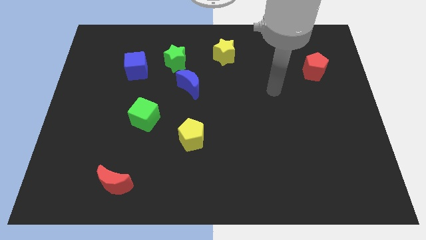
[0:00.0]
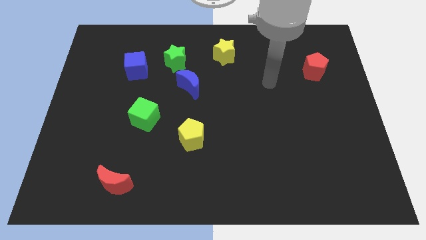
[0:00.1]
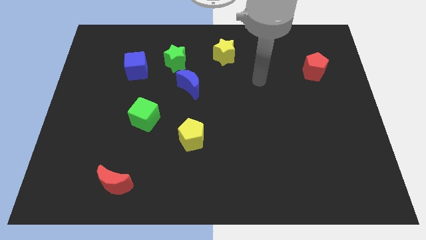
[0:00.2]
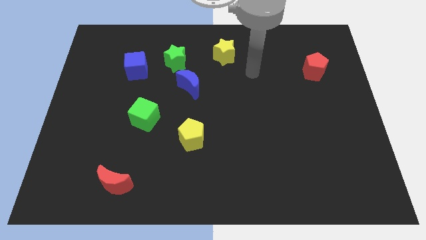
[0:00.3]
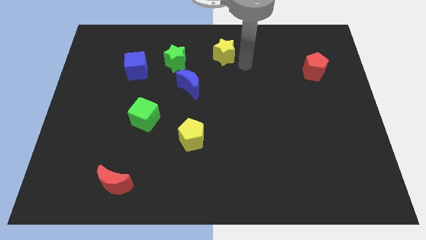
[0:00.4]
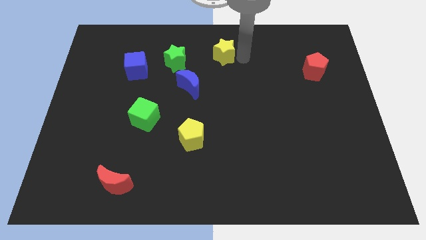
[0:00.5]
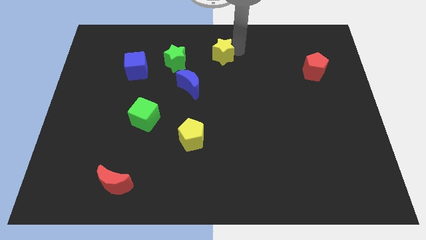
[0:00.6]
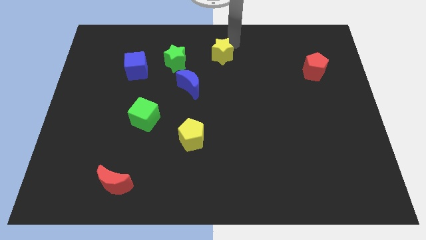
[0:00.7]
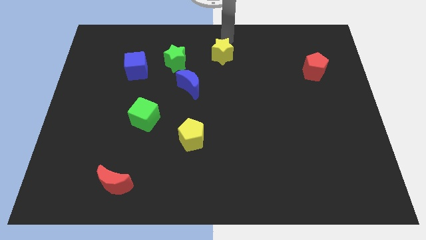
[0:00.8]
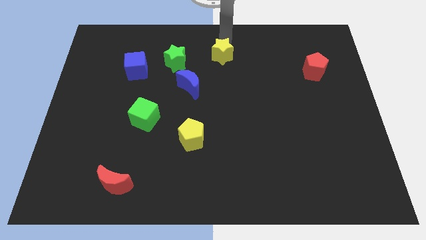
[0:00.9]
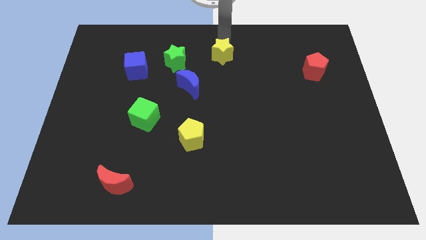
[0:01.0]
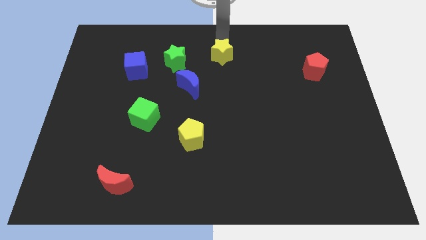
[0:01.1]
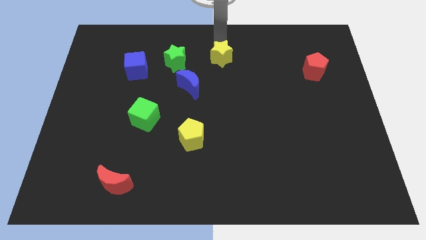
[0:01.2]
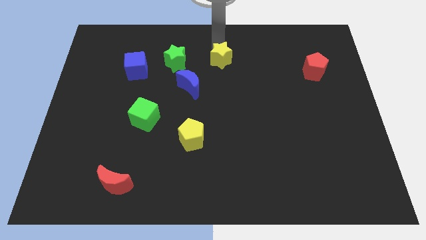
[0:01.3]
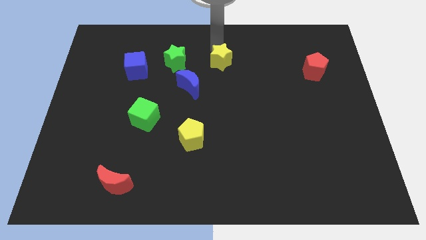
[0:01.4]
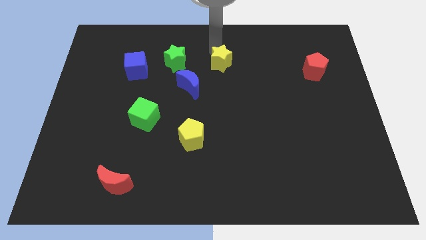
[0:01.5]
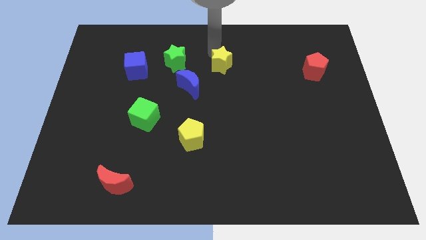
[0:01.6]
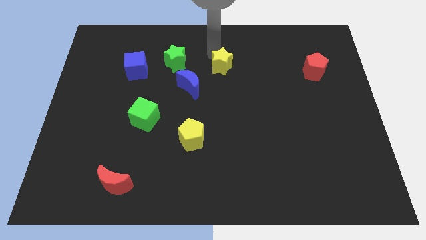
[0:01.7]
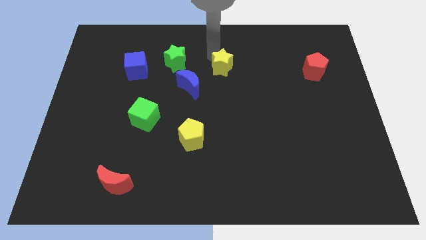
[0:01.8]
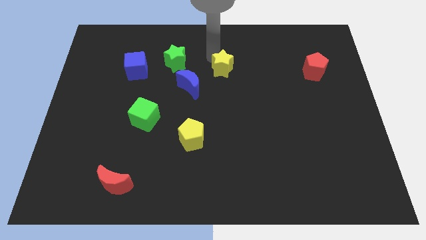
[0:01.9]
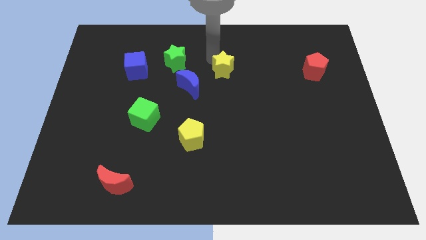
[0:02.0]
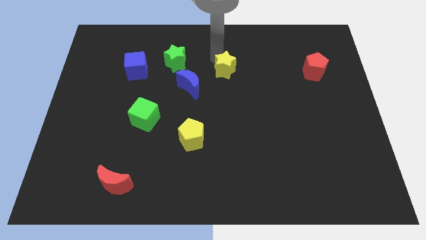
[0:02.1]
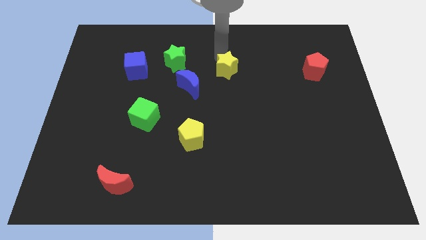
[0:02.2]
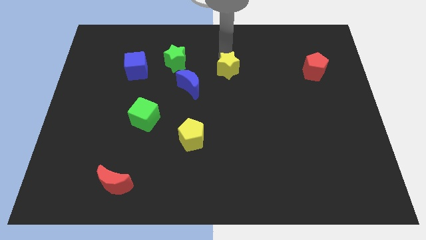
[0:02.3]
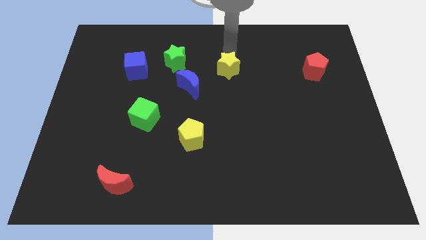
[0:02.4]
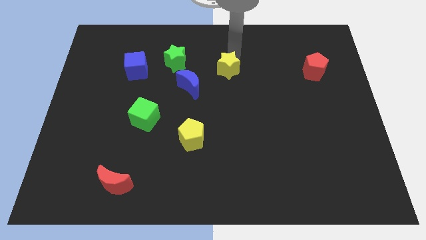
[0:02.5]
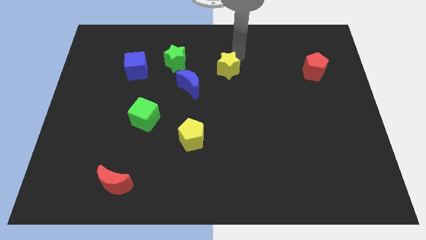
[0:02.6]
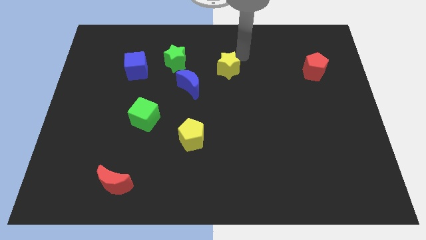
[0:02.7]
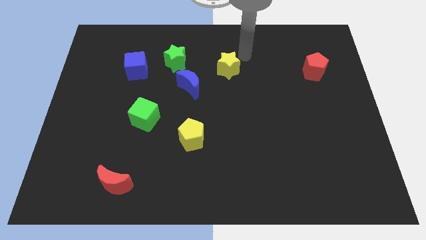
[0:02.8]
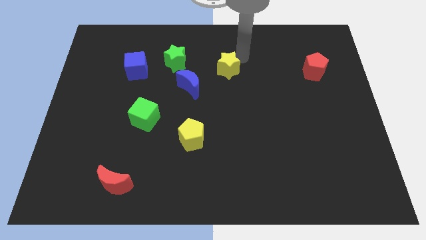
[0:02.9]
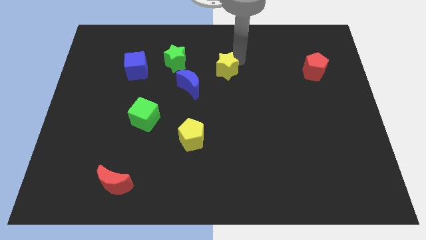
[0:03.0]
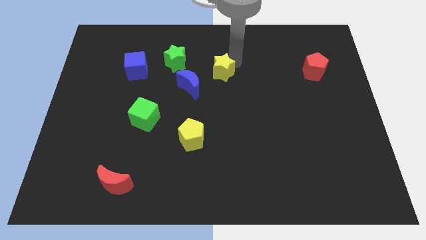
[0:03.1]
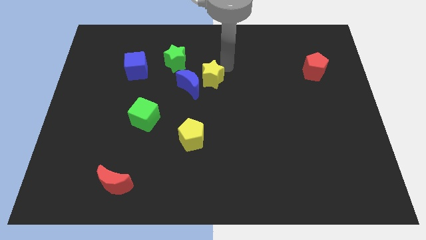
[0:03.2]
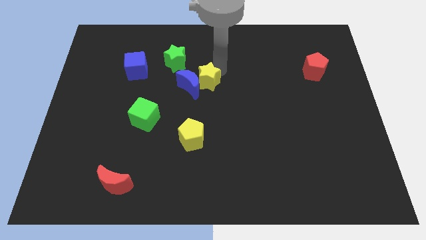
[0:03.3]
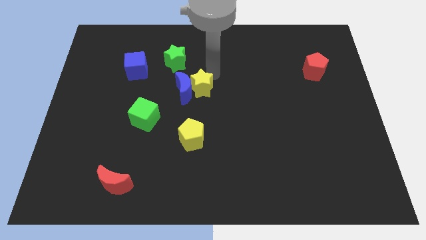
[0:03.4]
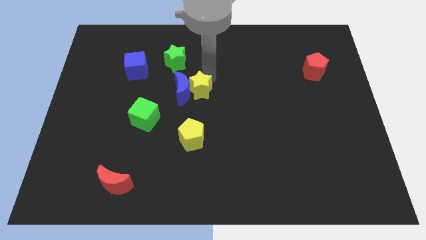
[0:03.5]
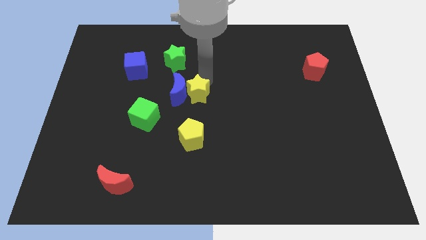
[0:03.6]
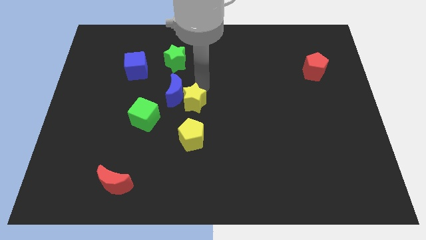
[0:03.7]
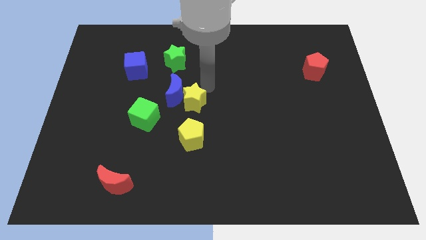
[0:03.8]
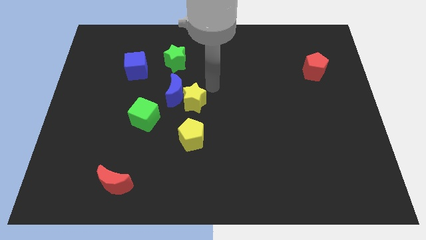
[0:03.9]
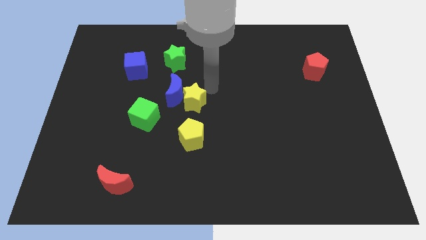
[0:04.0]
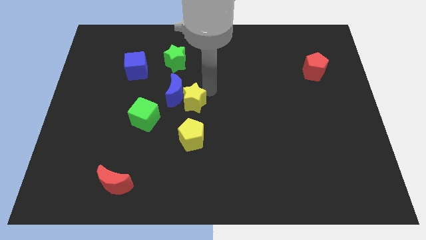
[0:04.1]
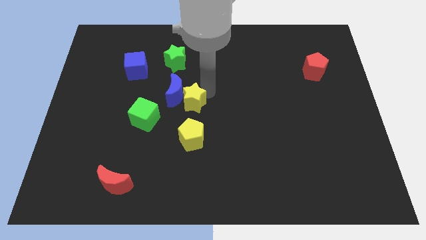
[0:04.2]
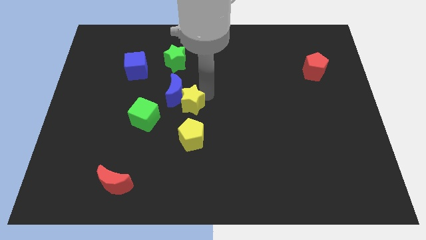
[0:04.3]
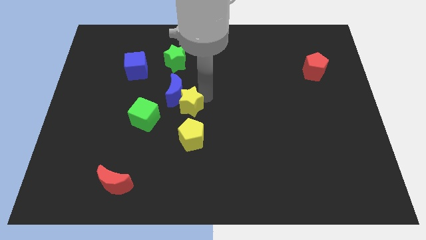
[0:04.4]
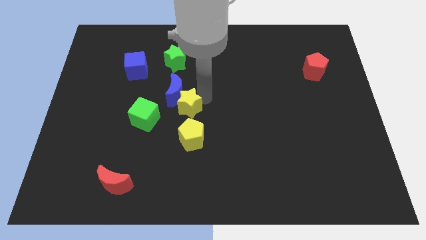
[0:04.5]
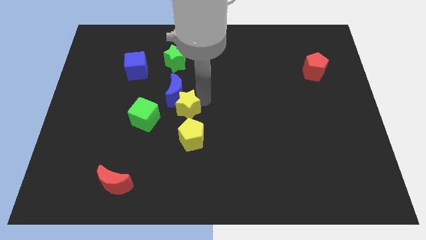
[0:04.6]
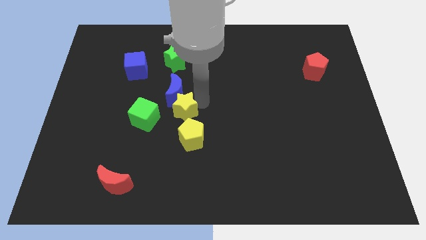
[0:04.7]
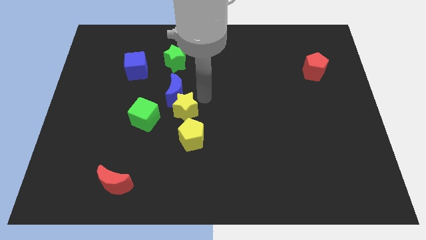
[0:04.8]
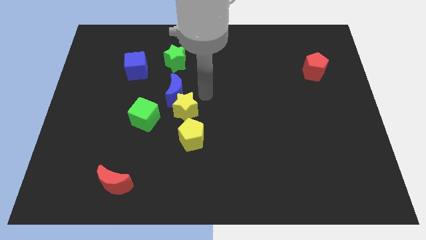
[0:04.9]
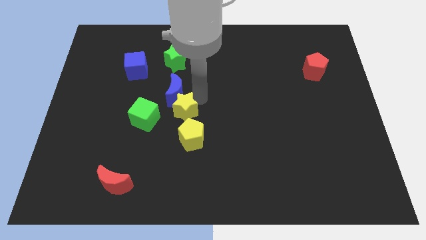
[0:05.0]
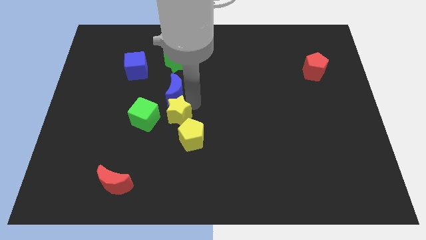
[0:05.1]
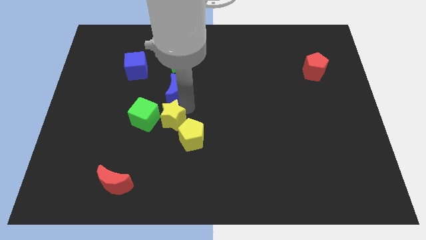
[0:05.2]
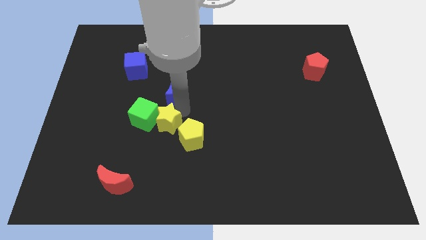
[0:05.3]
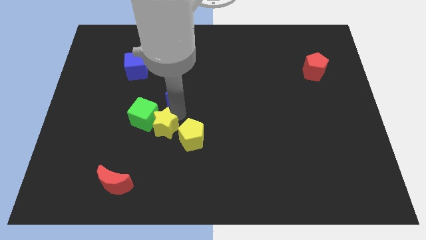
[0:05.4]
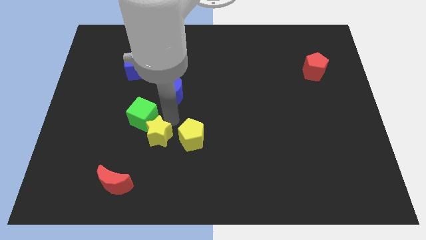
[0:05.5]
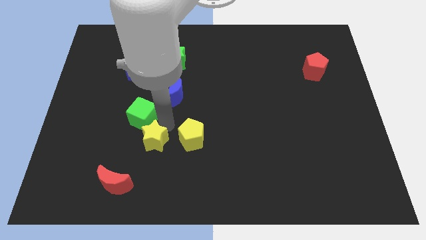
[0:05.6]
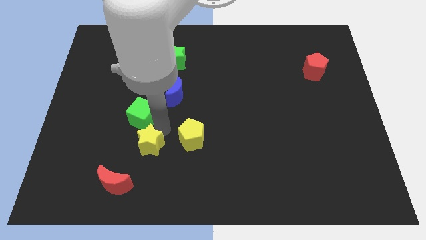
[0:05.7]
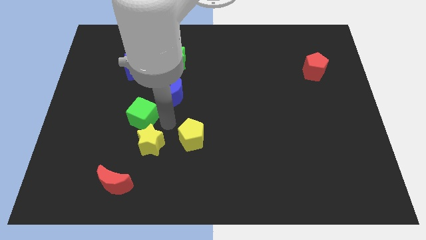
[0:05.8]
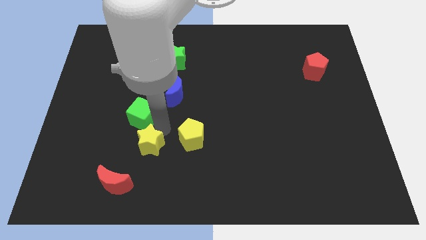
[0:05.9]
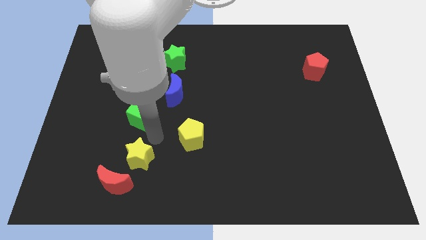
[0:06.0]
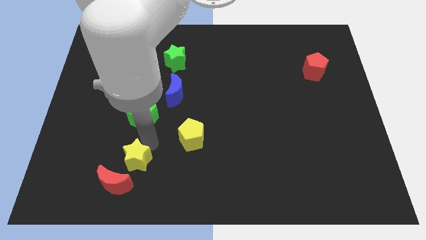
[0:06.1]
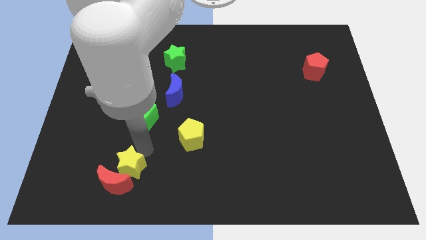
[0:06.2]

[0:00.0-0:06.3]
push the yellow star next to the red moon

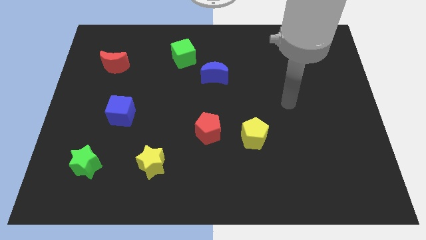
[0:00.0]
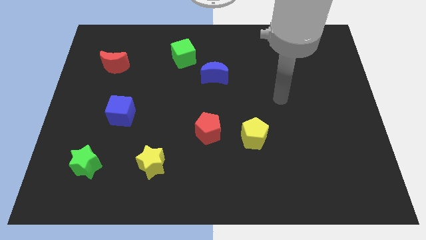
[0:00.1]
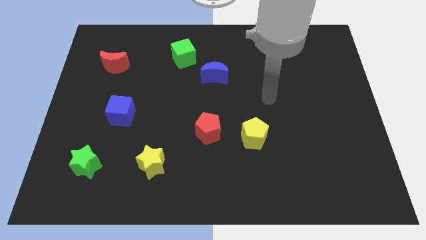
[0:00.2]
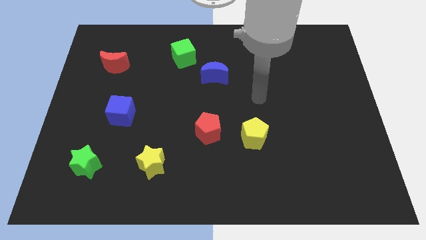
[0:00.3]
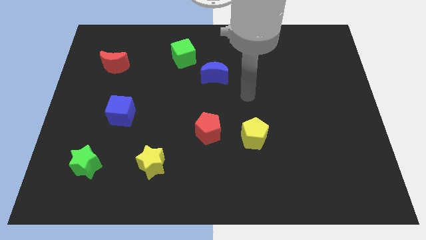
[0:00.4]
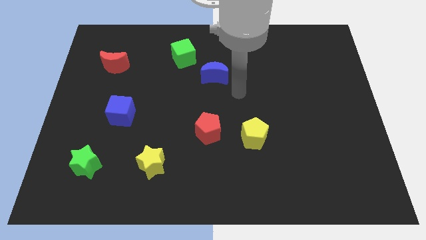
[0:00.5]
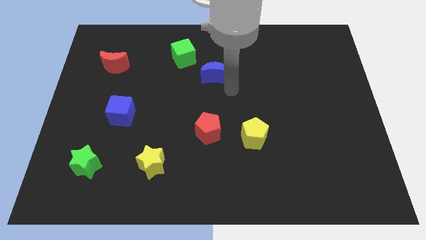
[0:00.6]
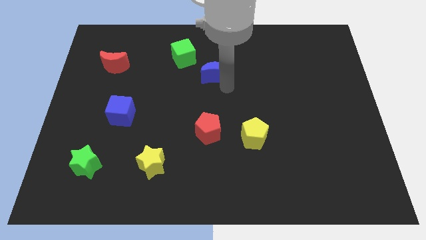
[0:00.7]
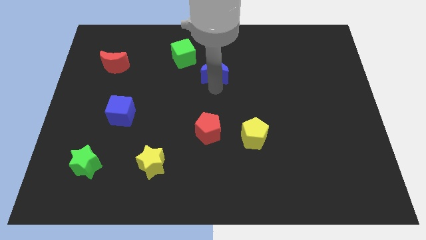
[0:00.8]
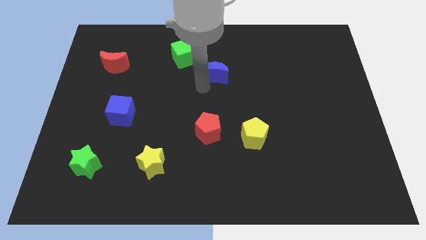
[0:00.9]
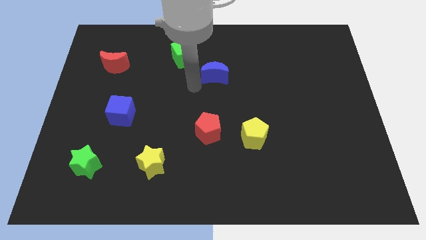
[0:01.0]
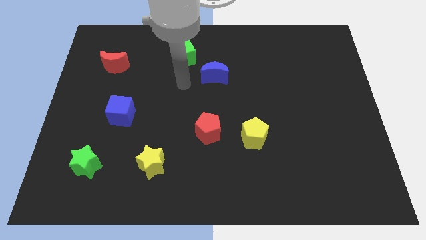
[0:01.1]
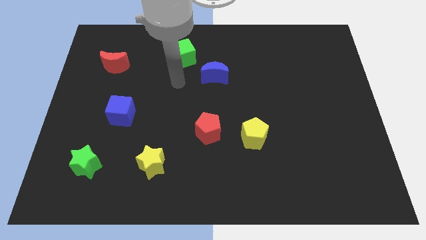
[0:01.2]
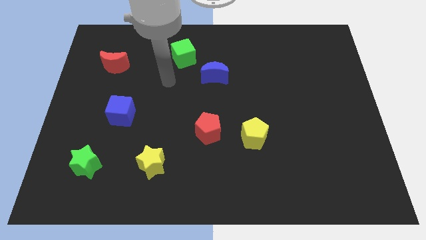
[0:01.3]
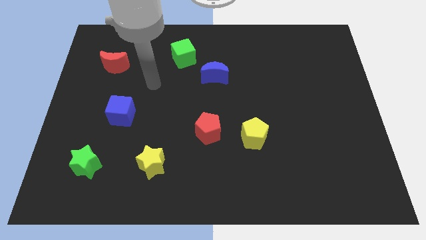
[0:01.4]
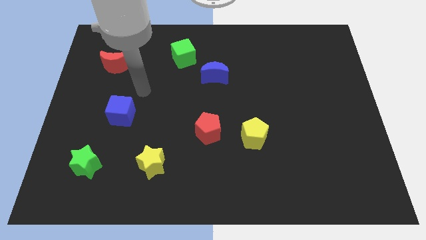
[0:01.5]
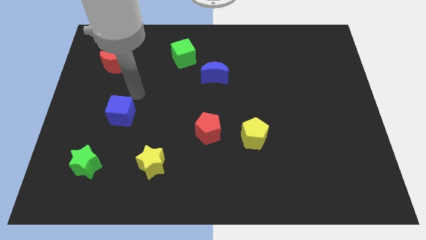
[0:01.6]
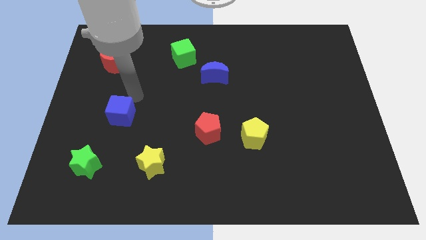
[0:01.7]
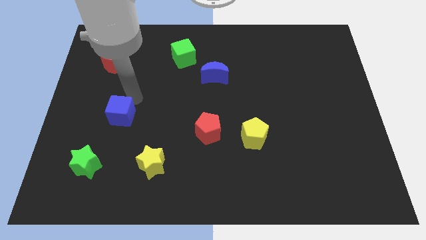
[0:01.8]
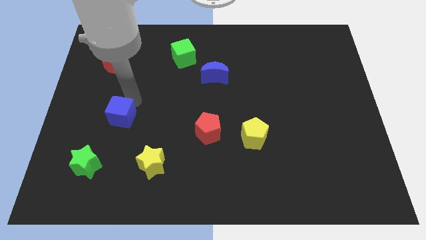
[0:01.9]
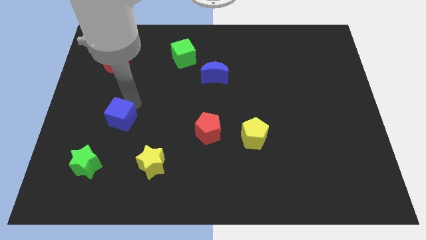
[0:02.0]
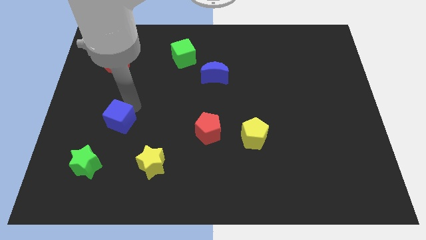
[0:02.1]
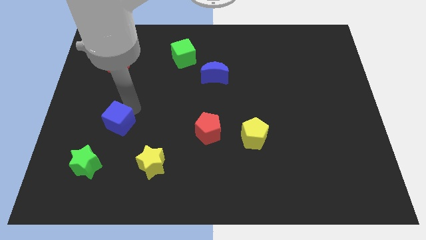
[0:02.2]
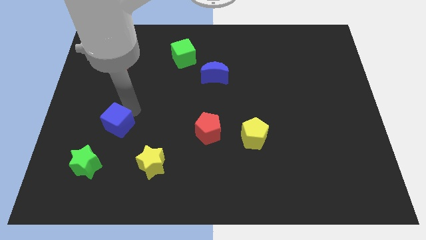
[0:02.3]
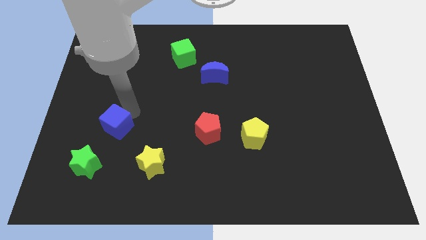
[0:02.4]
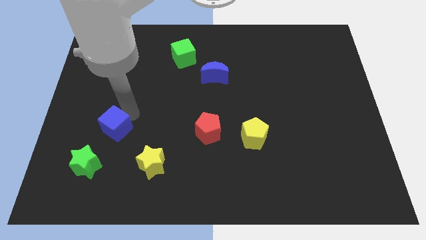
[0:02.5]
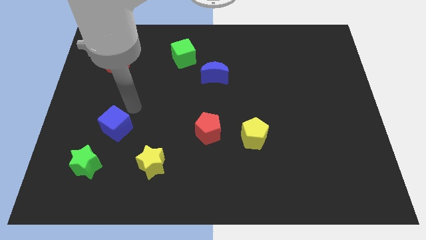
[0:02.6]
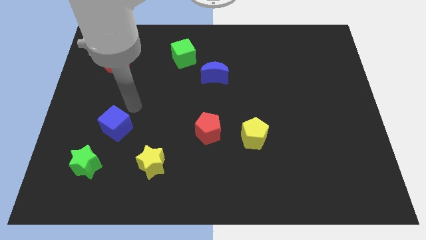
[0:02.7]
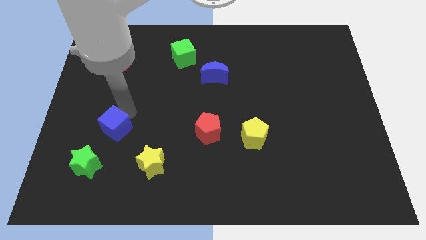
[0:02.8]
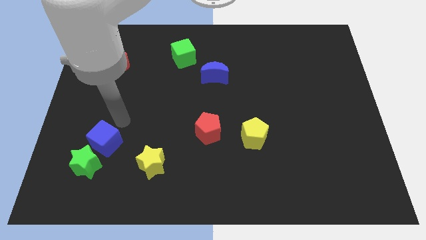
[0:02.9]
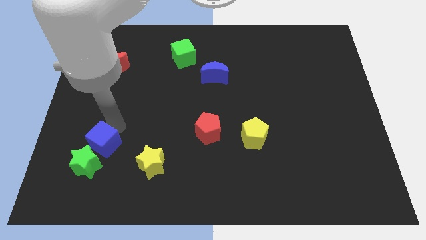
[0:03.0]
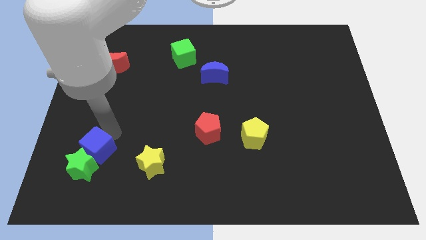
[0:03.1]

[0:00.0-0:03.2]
push the blue cube towards the green star
